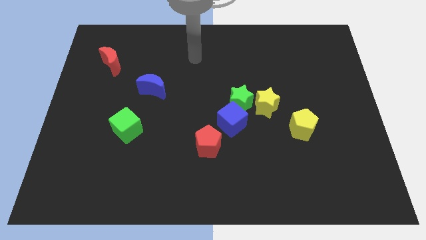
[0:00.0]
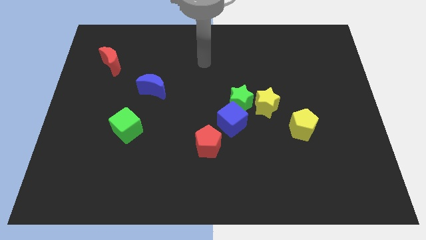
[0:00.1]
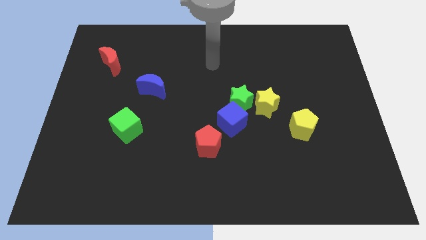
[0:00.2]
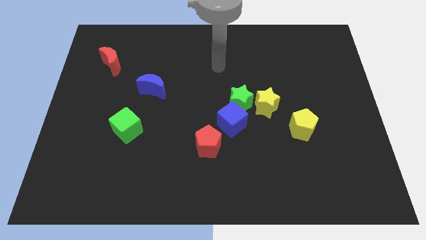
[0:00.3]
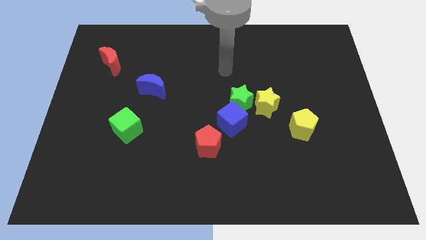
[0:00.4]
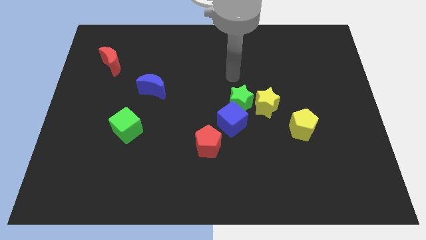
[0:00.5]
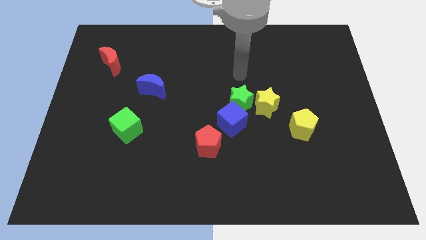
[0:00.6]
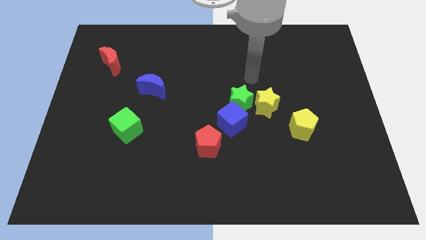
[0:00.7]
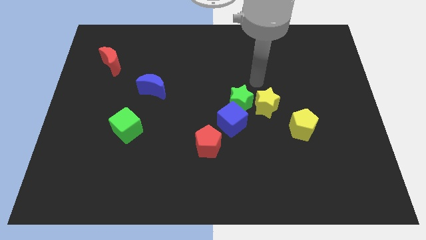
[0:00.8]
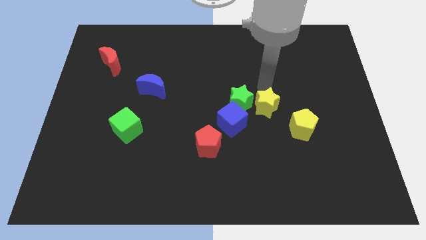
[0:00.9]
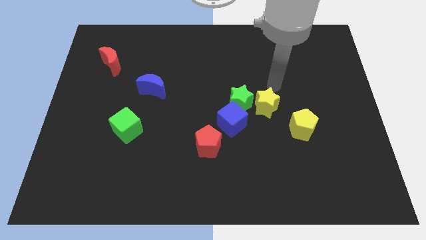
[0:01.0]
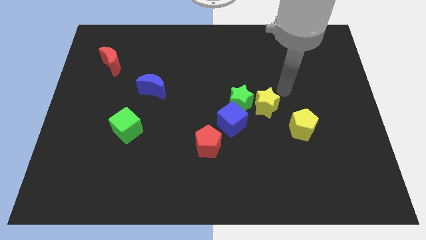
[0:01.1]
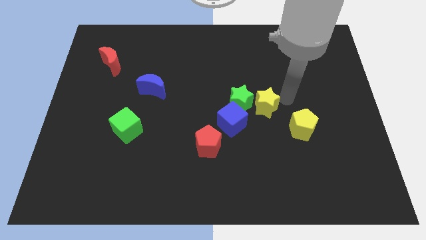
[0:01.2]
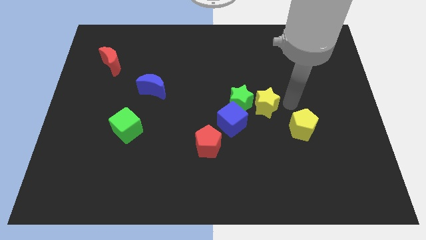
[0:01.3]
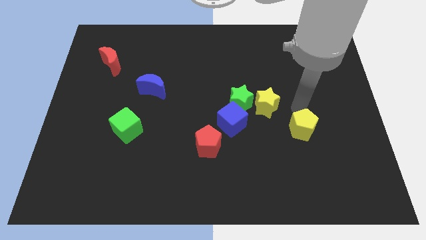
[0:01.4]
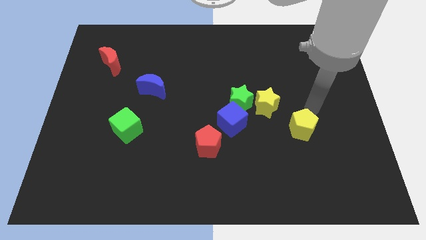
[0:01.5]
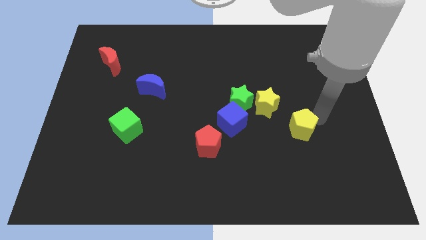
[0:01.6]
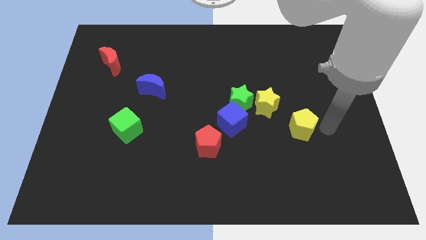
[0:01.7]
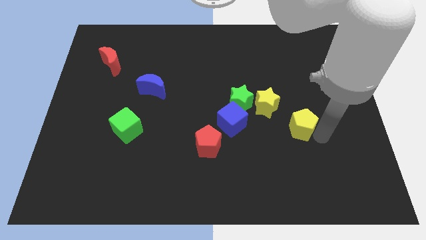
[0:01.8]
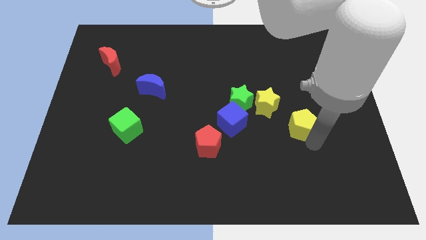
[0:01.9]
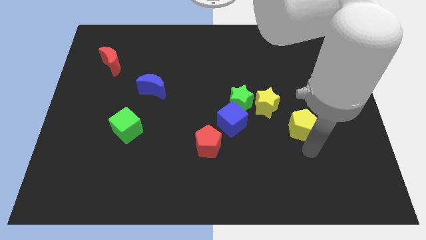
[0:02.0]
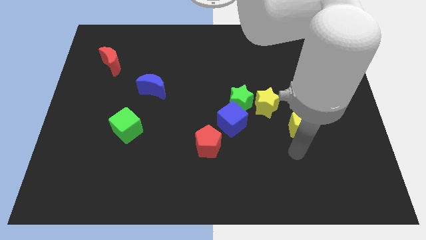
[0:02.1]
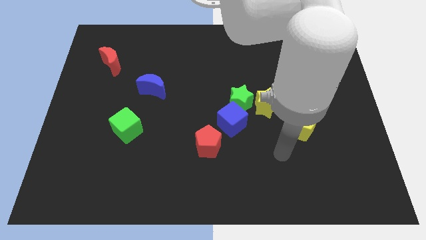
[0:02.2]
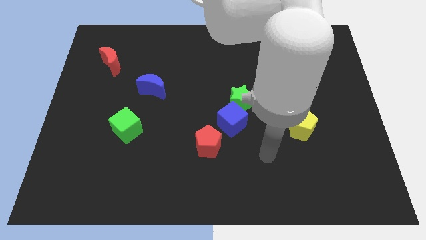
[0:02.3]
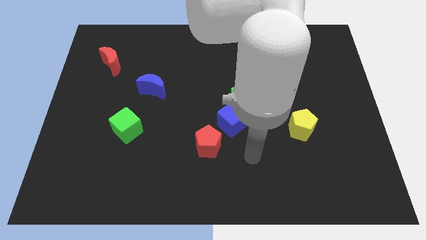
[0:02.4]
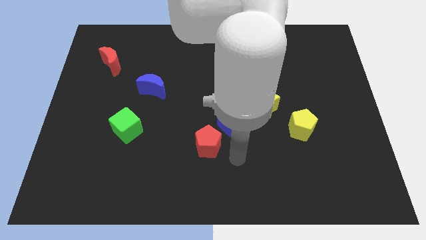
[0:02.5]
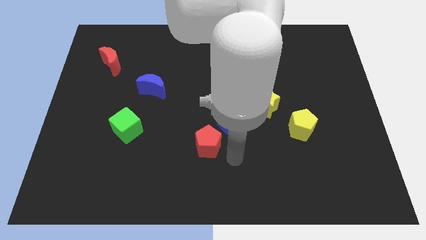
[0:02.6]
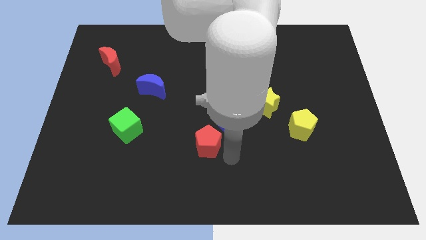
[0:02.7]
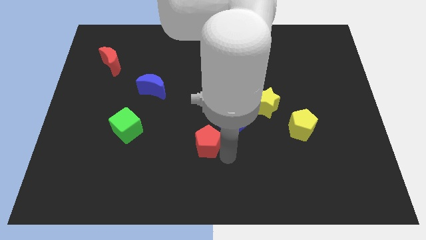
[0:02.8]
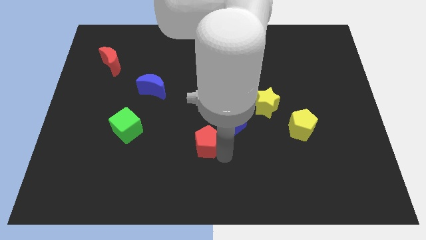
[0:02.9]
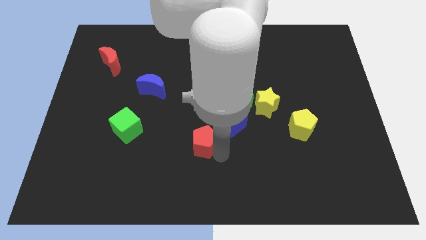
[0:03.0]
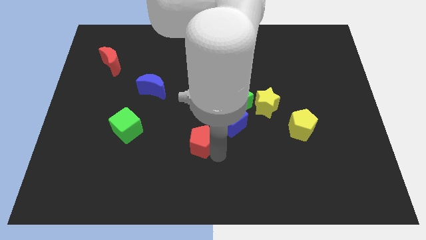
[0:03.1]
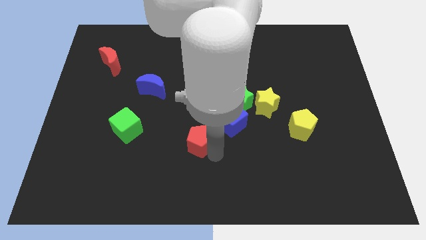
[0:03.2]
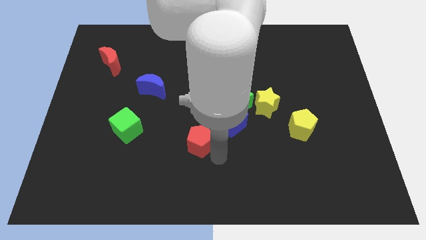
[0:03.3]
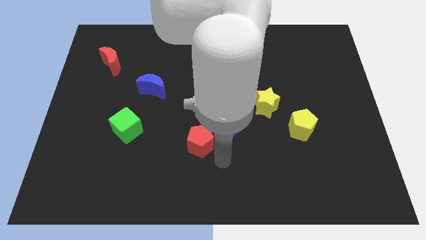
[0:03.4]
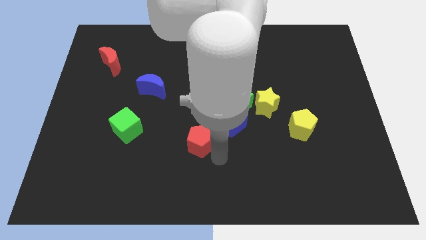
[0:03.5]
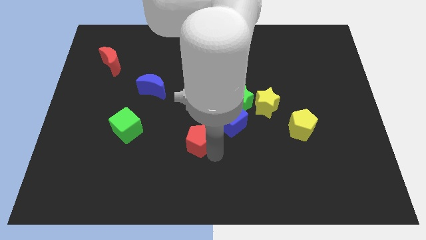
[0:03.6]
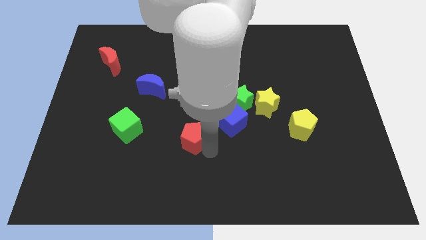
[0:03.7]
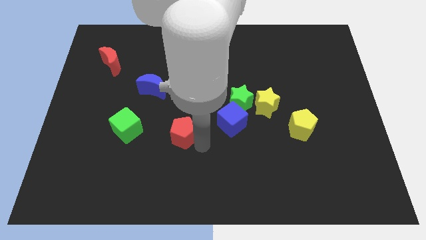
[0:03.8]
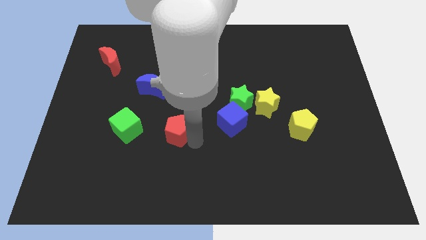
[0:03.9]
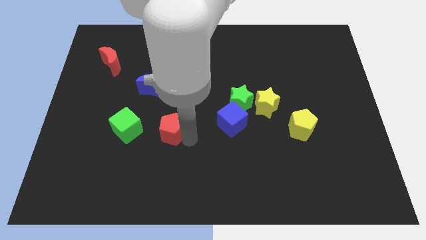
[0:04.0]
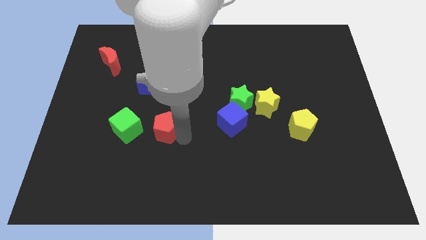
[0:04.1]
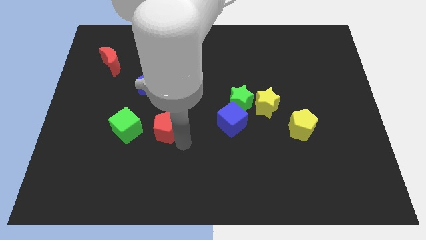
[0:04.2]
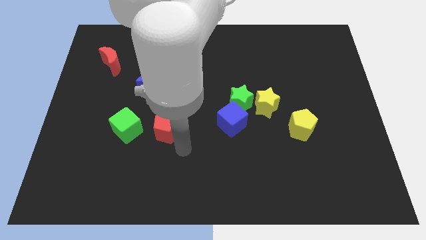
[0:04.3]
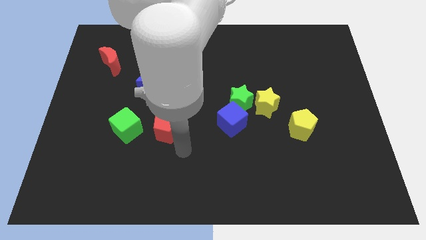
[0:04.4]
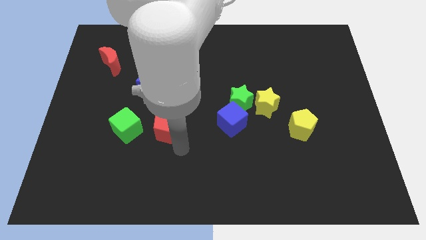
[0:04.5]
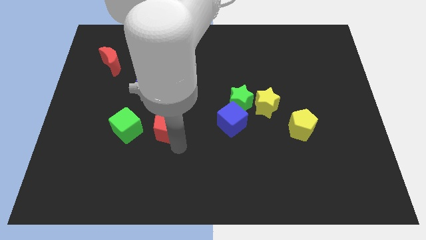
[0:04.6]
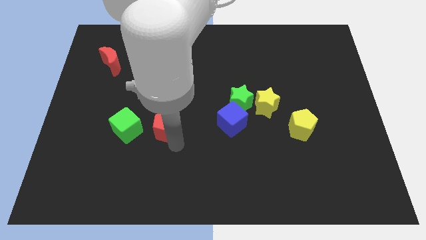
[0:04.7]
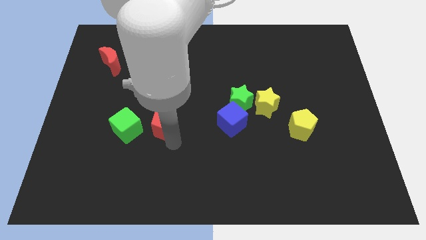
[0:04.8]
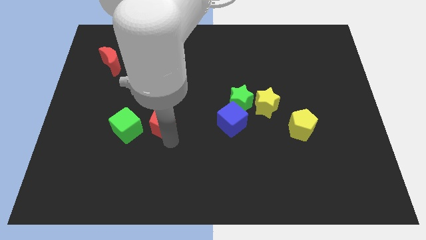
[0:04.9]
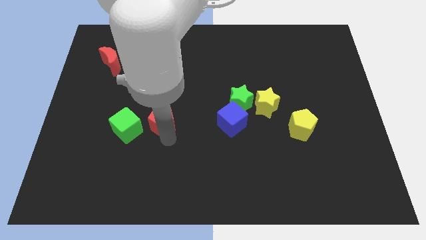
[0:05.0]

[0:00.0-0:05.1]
slide the red pentagon diagonally up and to the right of the green cube

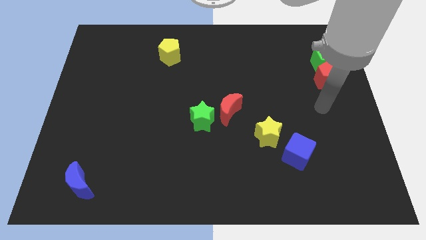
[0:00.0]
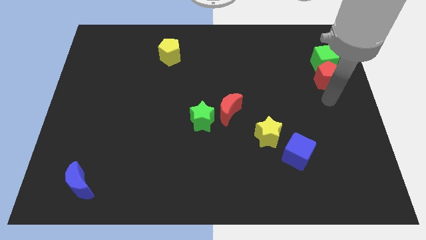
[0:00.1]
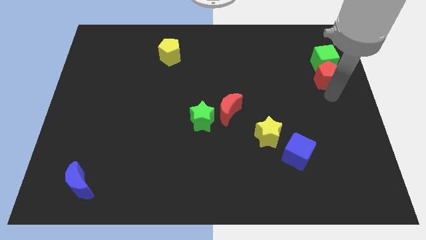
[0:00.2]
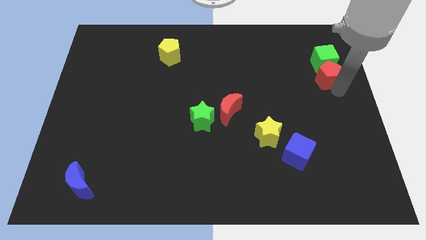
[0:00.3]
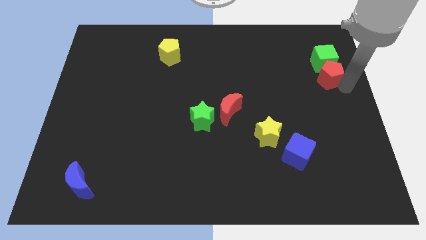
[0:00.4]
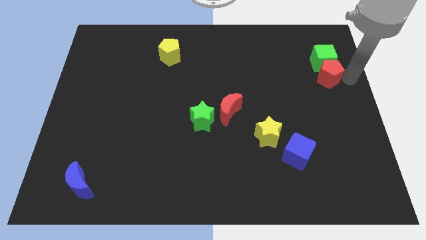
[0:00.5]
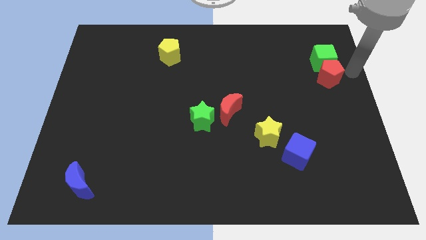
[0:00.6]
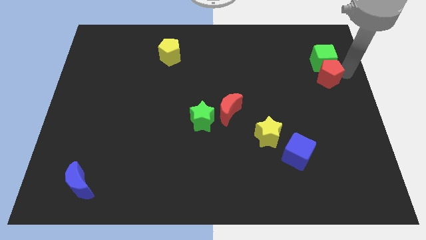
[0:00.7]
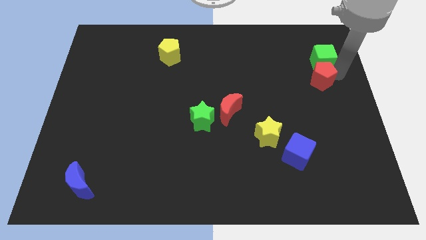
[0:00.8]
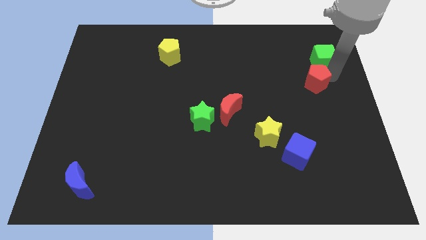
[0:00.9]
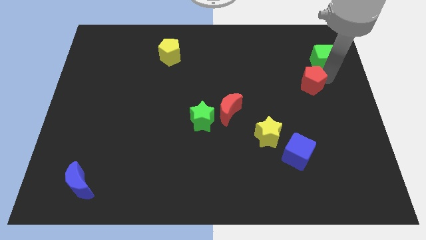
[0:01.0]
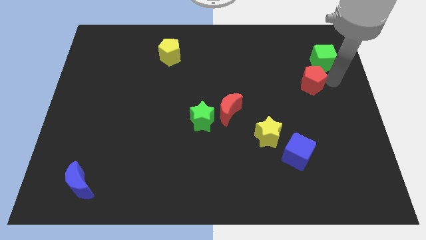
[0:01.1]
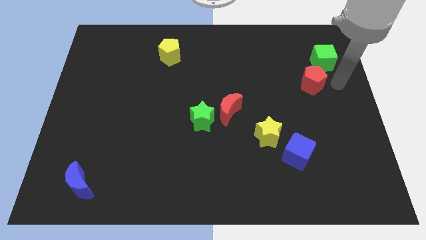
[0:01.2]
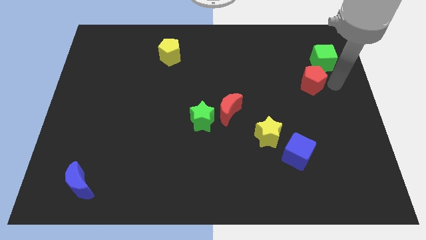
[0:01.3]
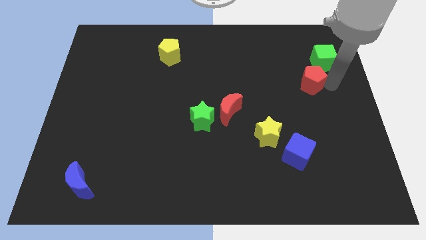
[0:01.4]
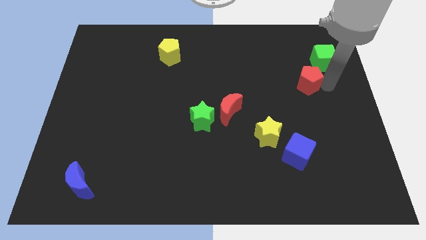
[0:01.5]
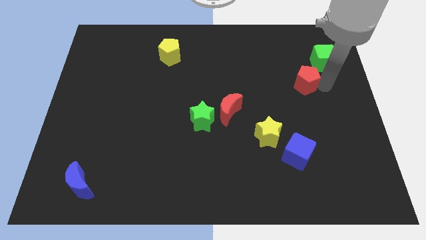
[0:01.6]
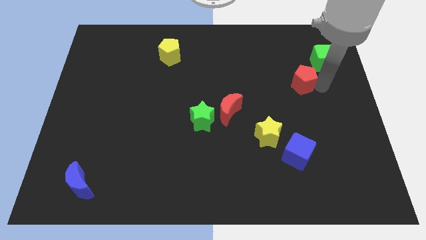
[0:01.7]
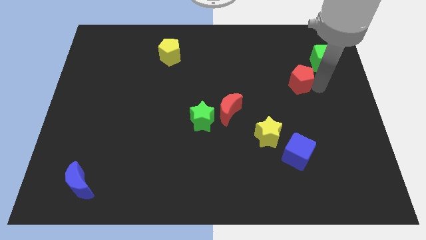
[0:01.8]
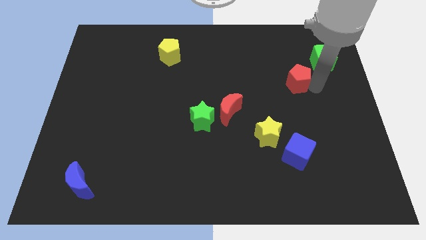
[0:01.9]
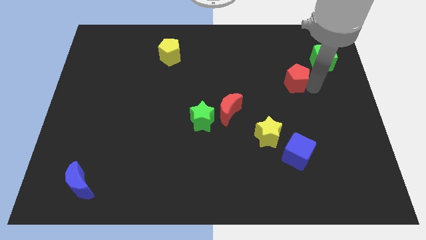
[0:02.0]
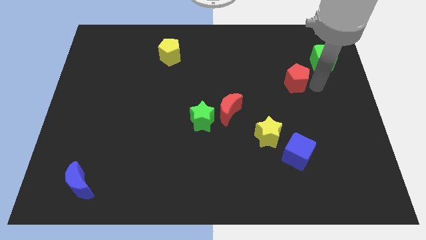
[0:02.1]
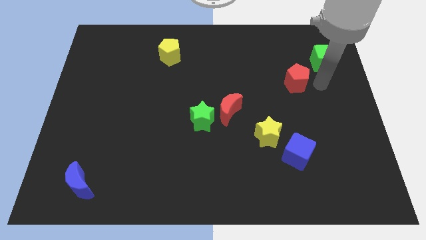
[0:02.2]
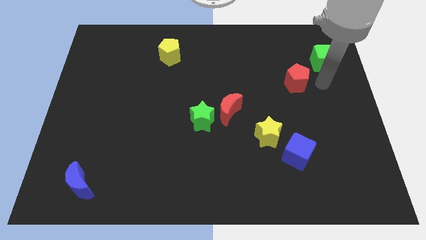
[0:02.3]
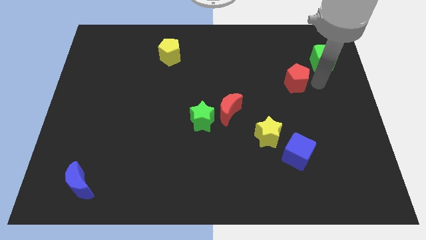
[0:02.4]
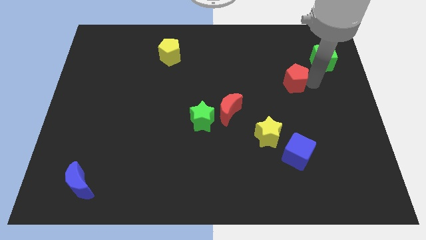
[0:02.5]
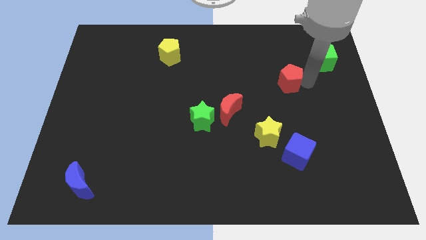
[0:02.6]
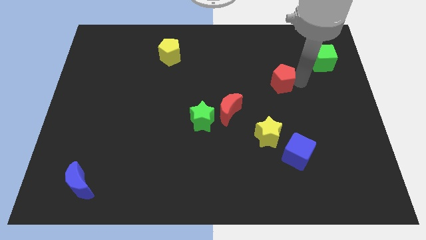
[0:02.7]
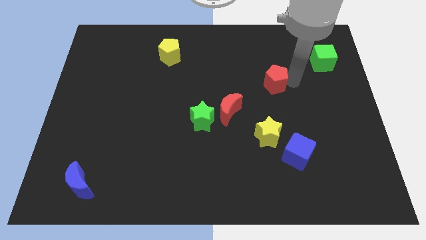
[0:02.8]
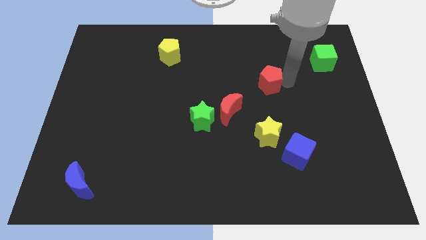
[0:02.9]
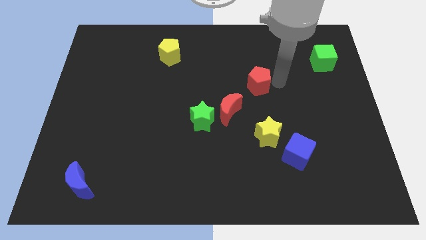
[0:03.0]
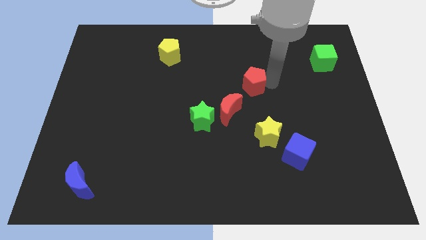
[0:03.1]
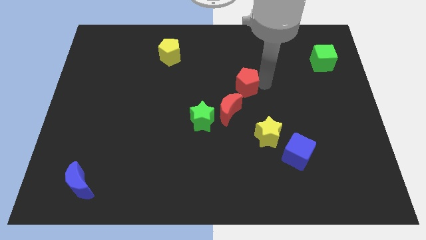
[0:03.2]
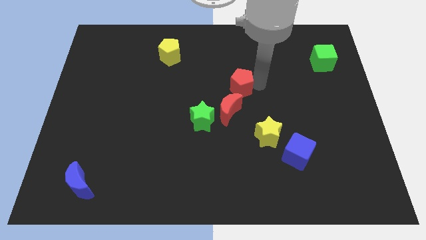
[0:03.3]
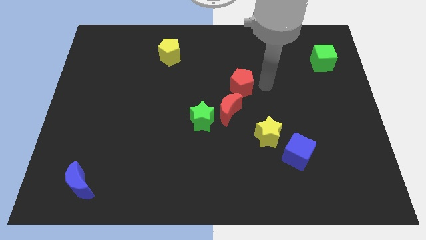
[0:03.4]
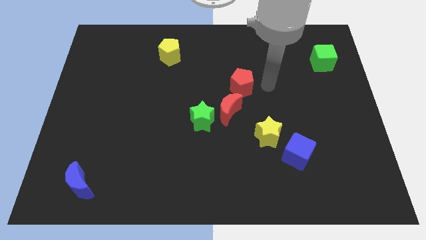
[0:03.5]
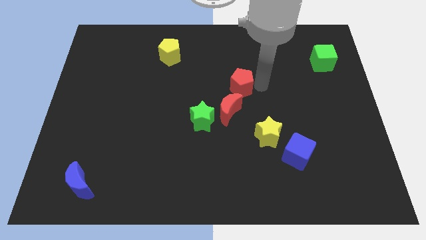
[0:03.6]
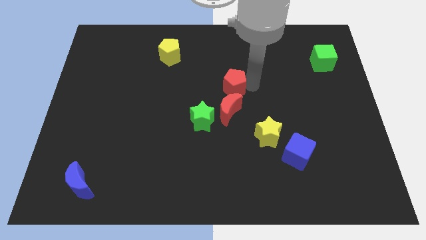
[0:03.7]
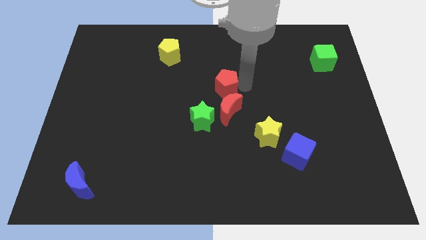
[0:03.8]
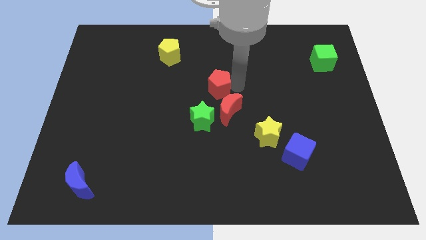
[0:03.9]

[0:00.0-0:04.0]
push the red pentagon to the top side of the green star
